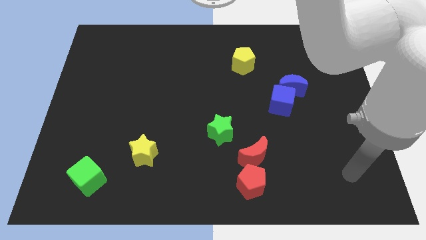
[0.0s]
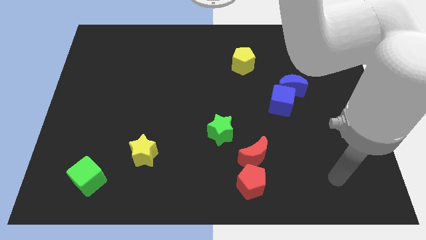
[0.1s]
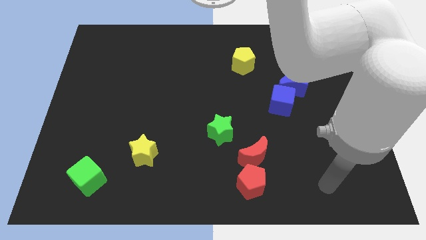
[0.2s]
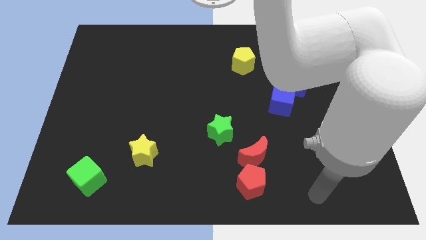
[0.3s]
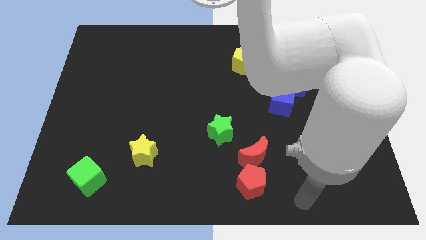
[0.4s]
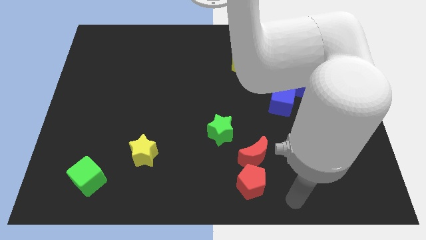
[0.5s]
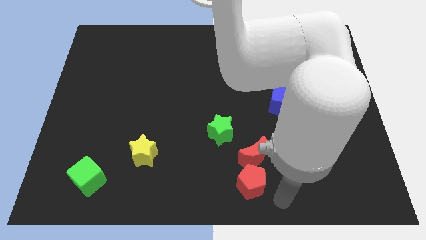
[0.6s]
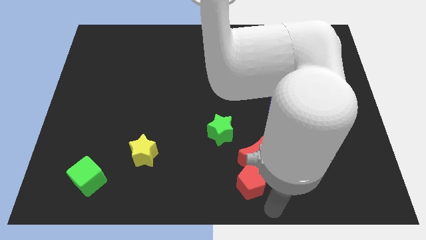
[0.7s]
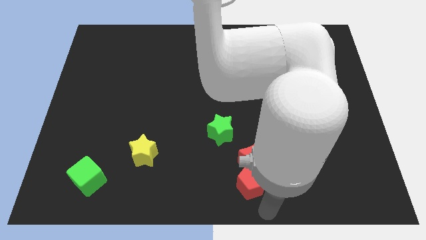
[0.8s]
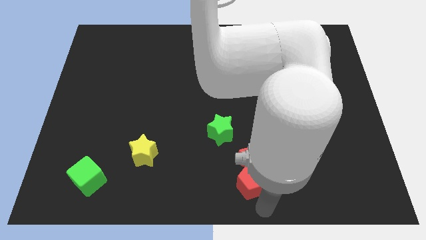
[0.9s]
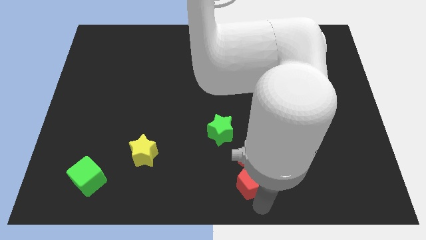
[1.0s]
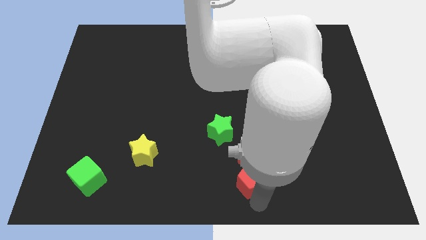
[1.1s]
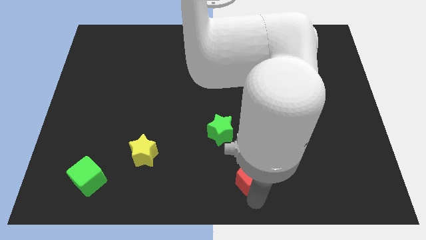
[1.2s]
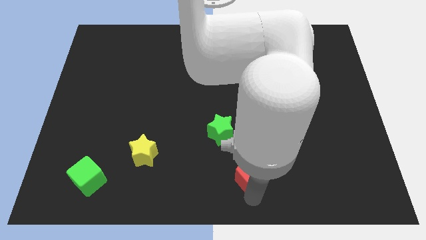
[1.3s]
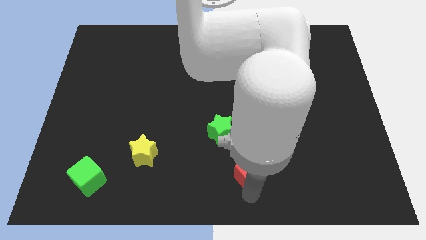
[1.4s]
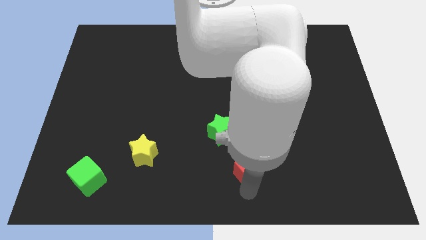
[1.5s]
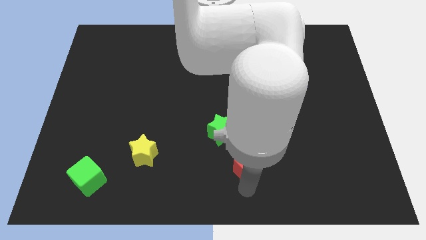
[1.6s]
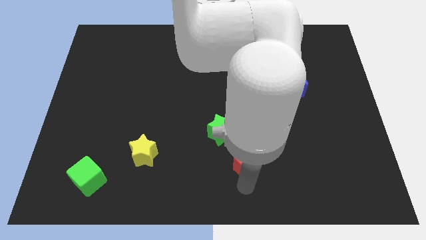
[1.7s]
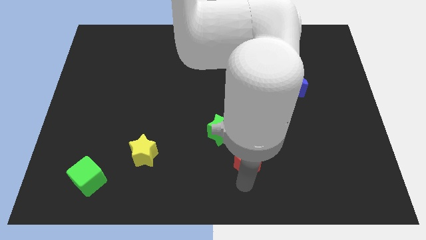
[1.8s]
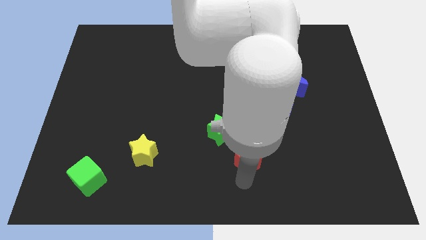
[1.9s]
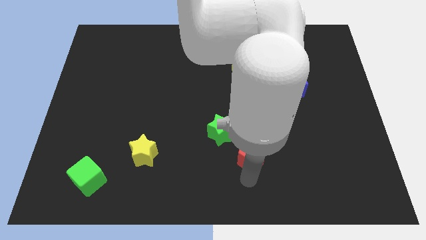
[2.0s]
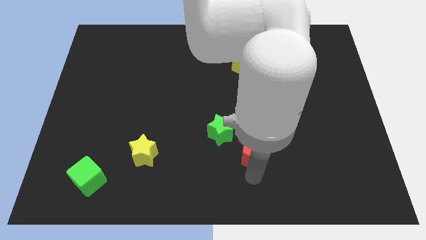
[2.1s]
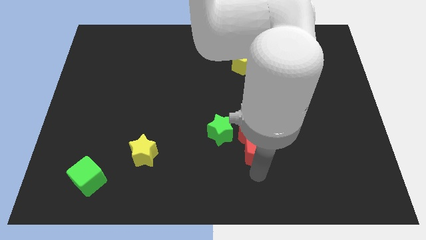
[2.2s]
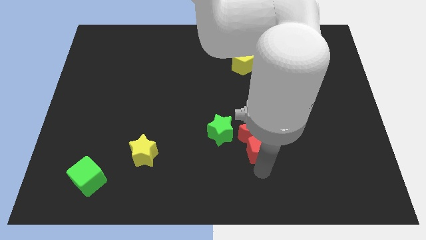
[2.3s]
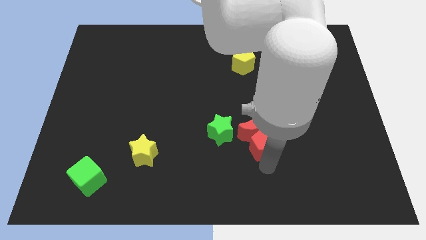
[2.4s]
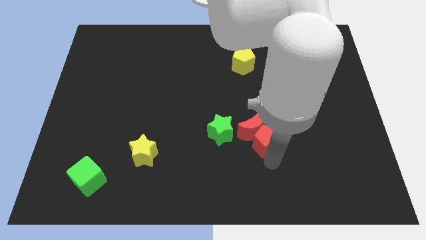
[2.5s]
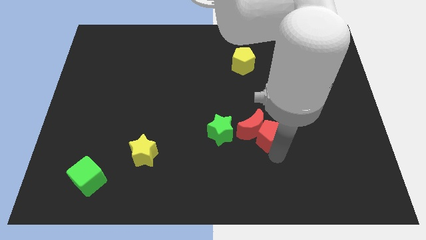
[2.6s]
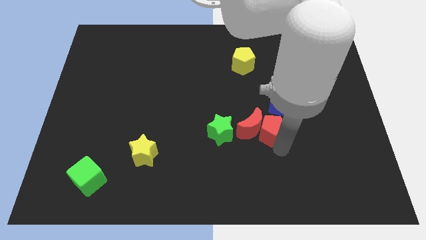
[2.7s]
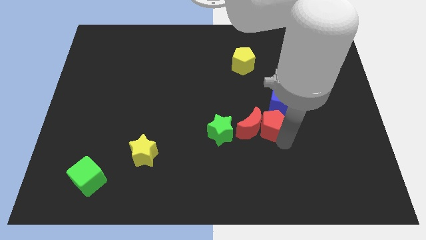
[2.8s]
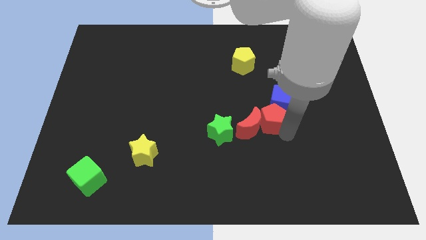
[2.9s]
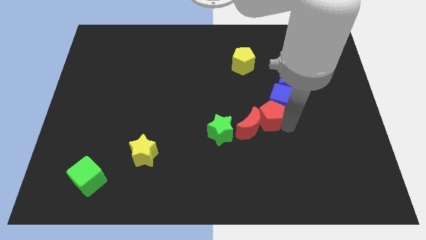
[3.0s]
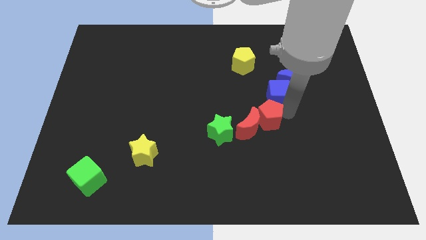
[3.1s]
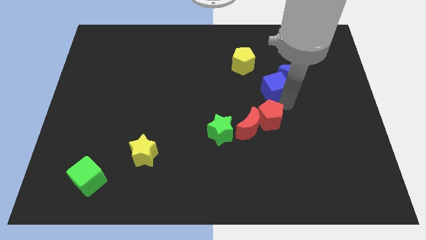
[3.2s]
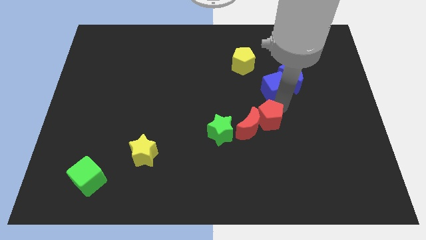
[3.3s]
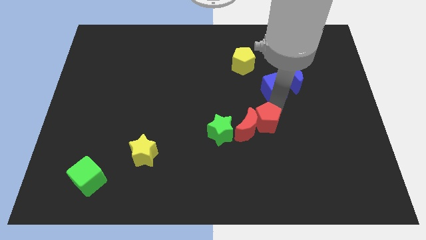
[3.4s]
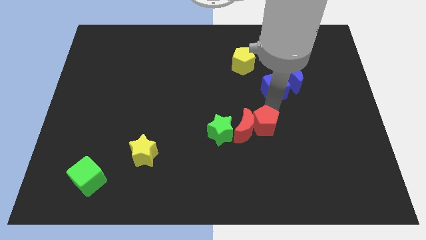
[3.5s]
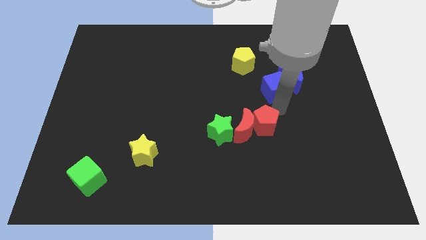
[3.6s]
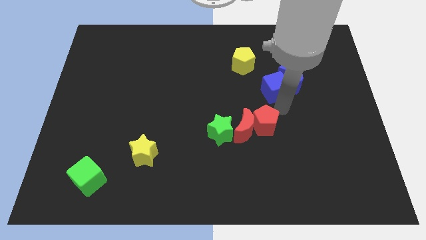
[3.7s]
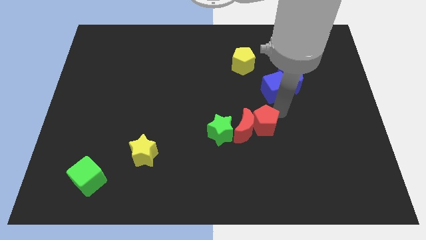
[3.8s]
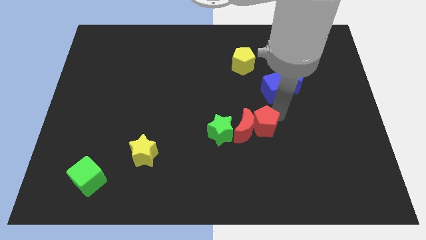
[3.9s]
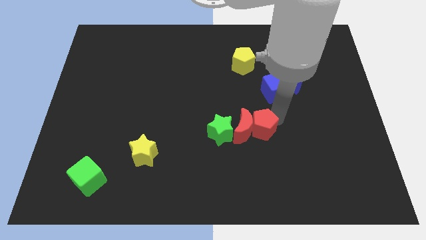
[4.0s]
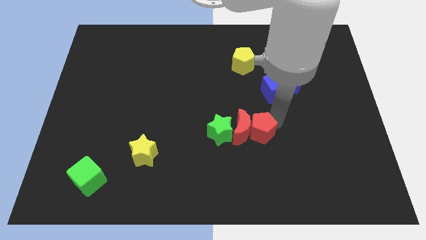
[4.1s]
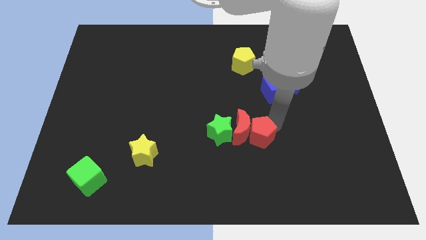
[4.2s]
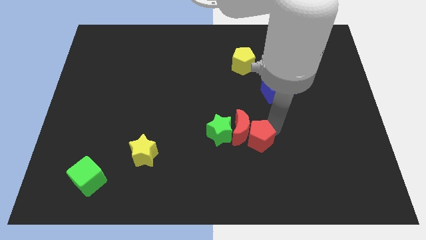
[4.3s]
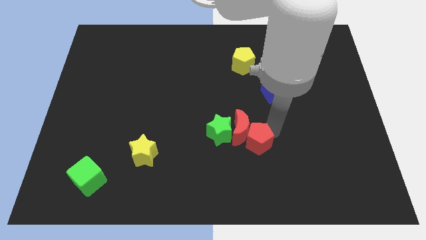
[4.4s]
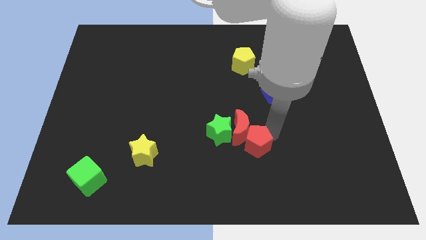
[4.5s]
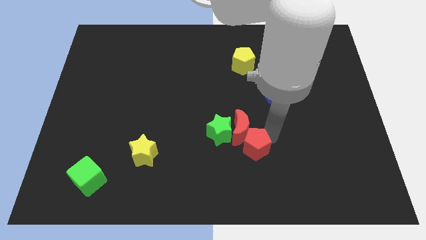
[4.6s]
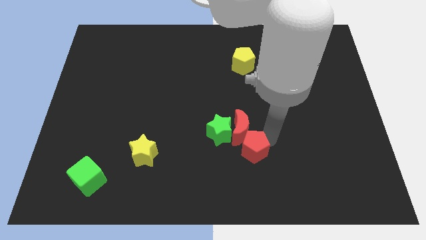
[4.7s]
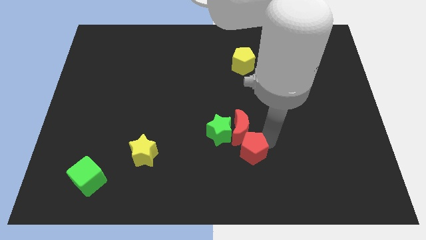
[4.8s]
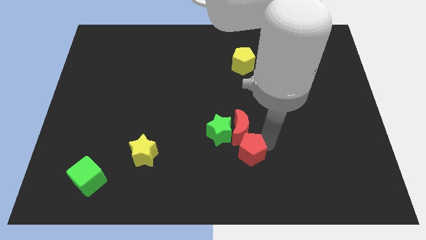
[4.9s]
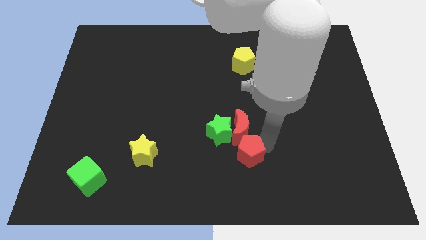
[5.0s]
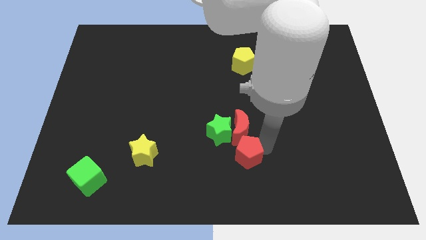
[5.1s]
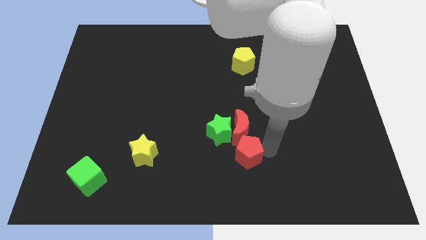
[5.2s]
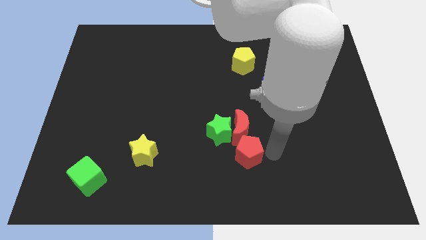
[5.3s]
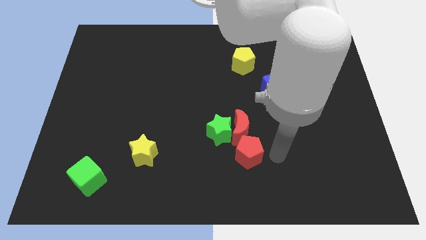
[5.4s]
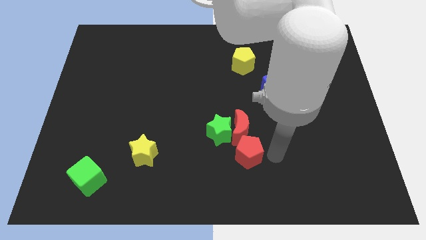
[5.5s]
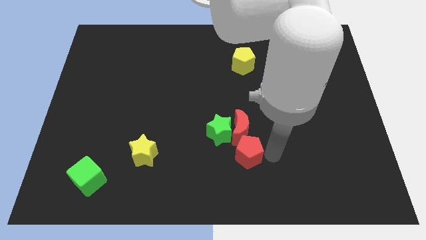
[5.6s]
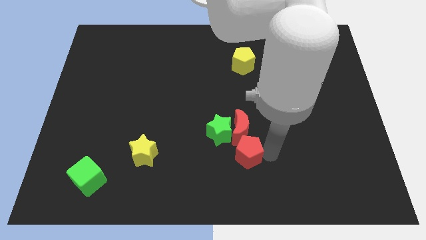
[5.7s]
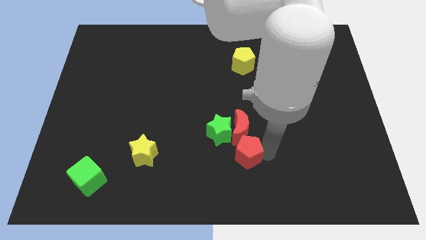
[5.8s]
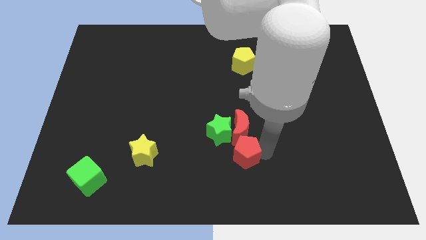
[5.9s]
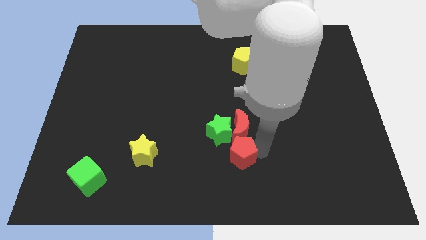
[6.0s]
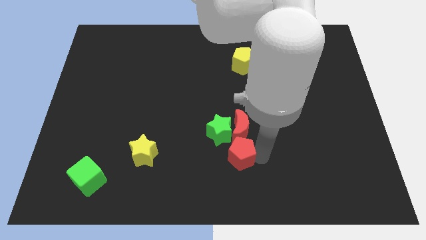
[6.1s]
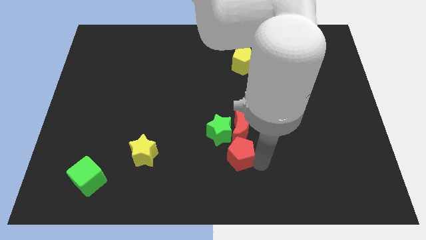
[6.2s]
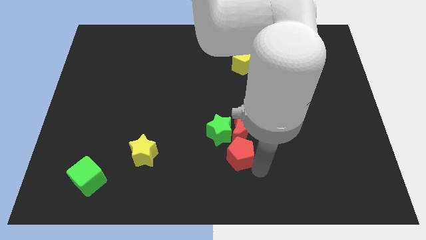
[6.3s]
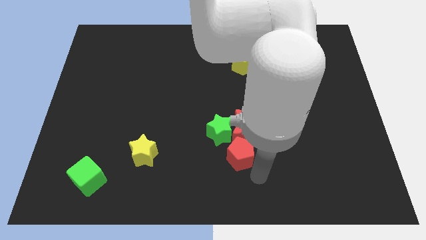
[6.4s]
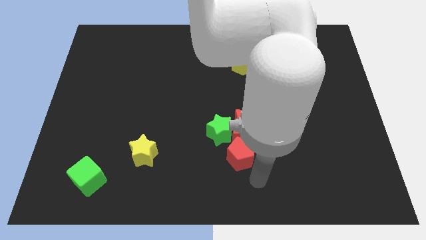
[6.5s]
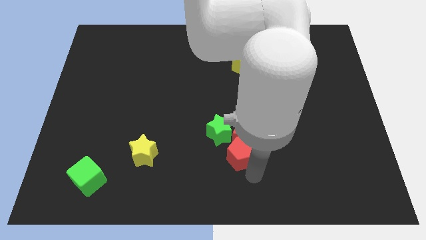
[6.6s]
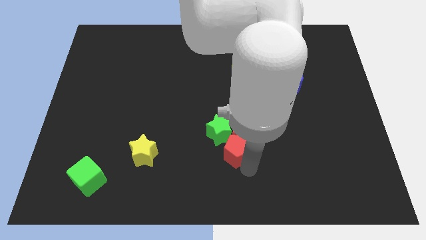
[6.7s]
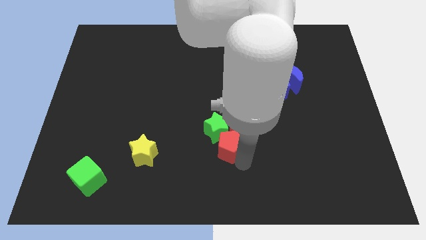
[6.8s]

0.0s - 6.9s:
slide the red pentagon to the green star

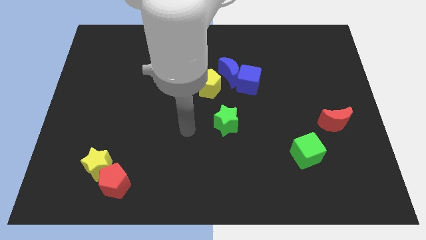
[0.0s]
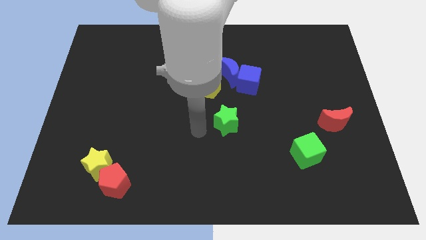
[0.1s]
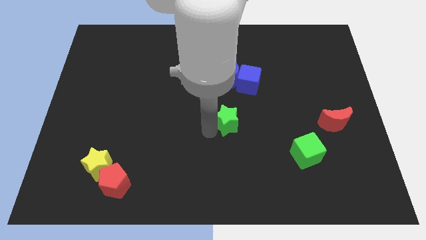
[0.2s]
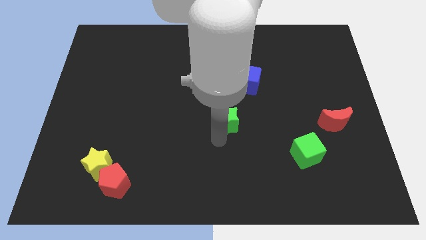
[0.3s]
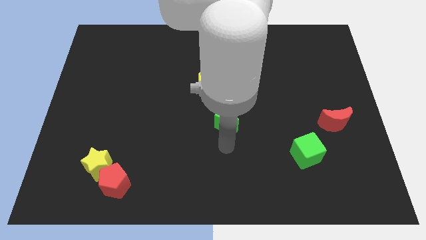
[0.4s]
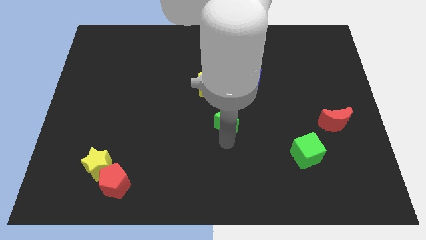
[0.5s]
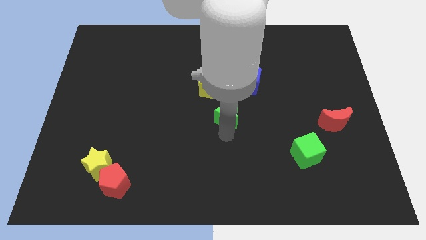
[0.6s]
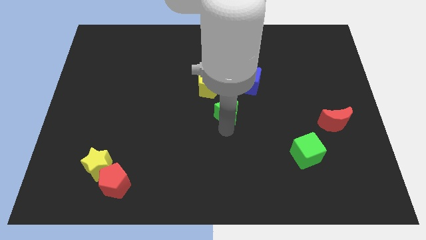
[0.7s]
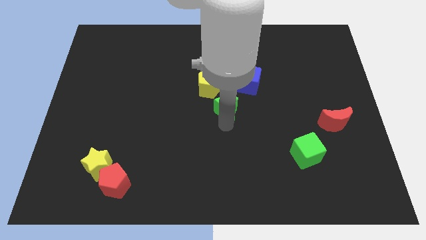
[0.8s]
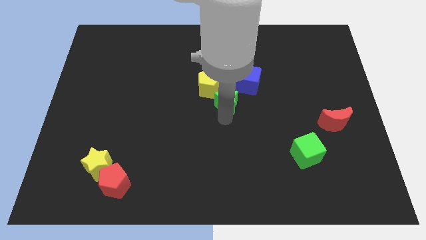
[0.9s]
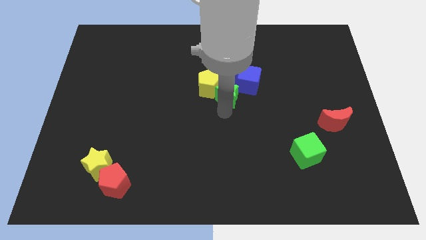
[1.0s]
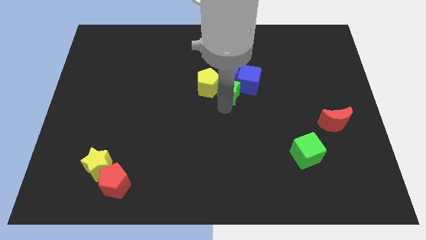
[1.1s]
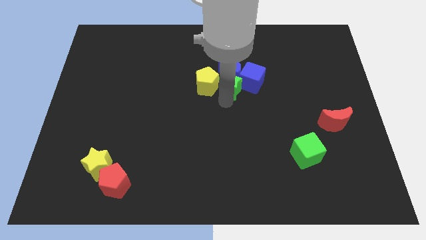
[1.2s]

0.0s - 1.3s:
slide the green star towards the blue moon
